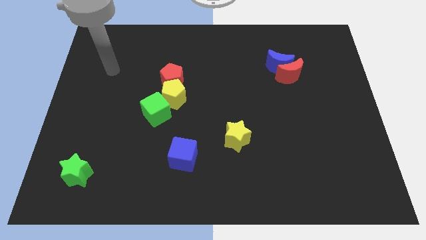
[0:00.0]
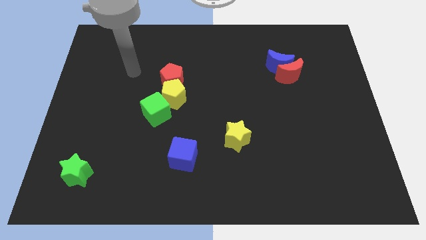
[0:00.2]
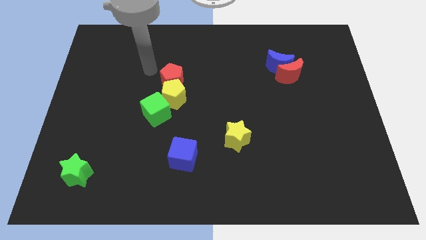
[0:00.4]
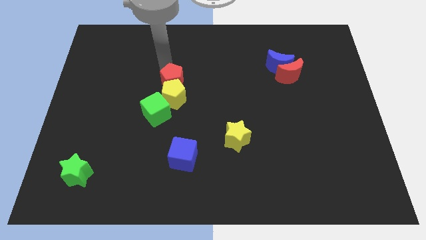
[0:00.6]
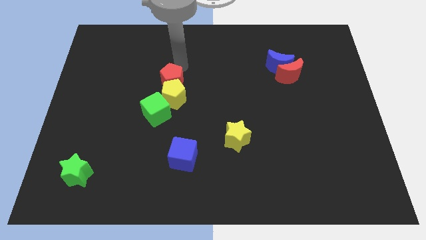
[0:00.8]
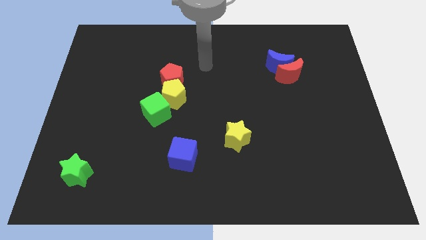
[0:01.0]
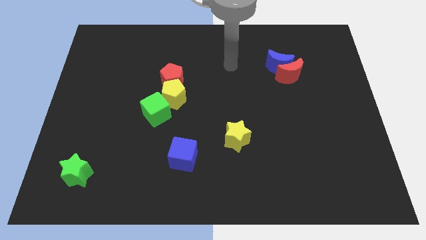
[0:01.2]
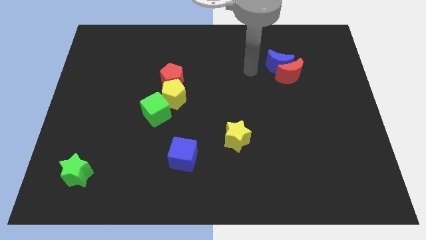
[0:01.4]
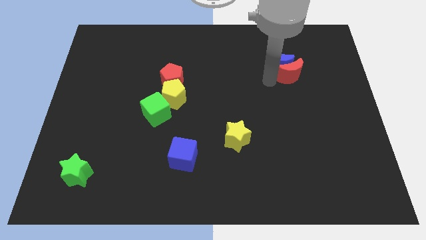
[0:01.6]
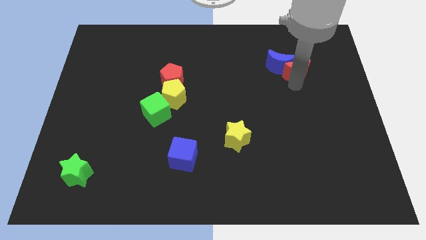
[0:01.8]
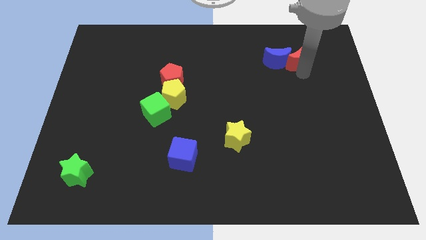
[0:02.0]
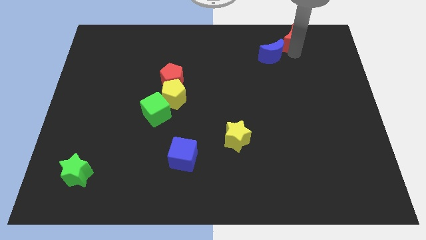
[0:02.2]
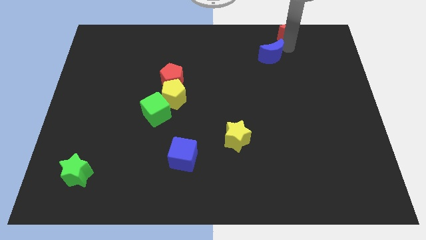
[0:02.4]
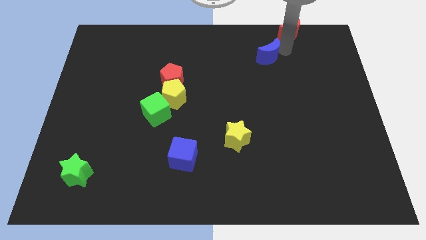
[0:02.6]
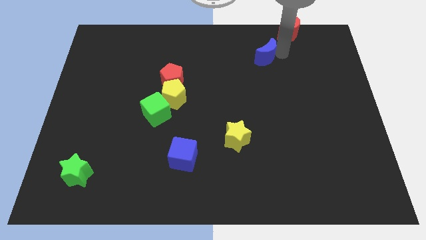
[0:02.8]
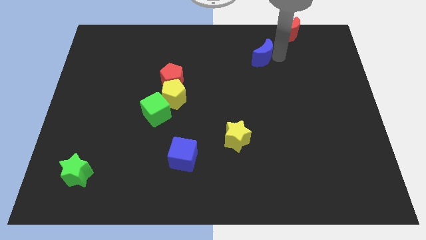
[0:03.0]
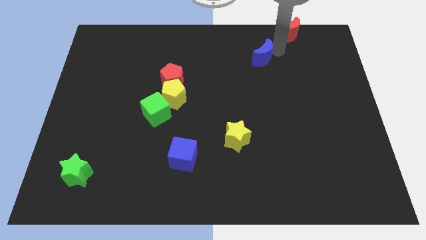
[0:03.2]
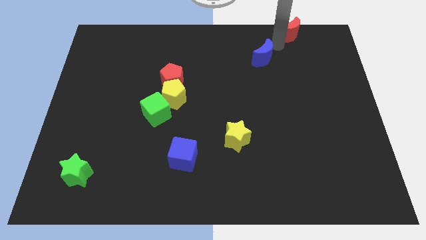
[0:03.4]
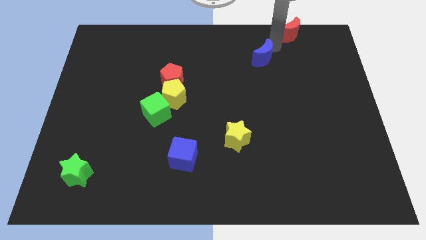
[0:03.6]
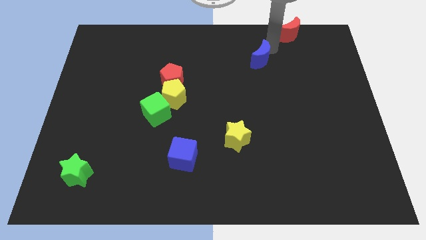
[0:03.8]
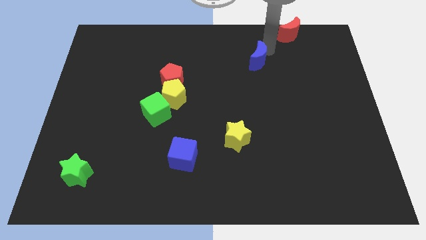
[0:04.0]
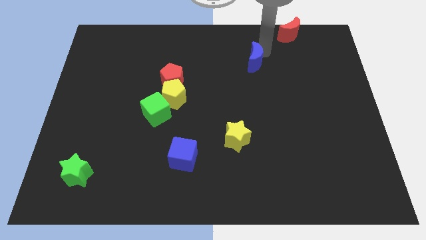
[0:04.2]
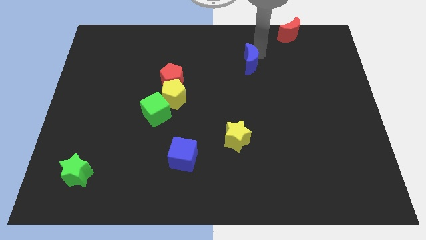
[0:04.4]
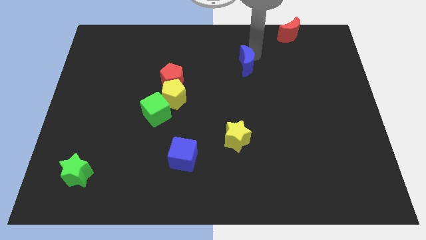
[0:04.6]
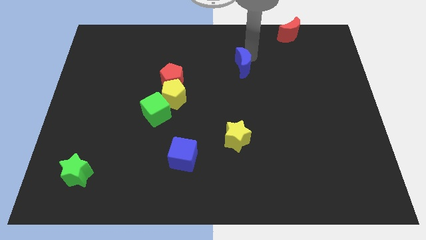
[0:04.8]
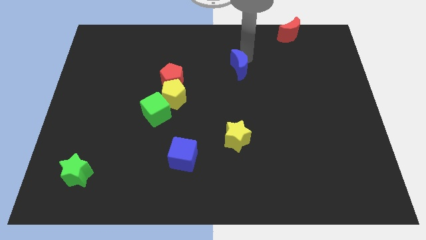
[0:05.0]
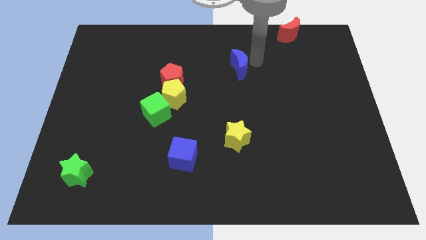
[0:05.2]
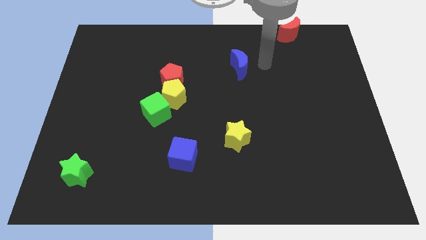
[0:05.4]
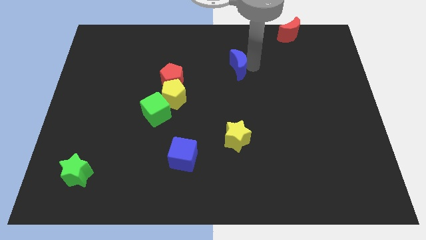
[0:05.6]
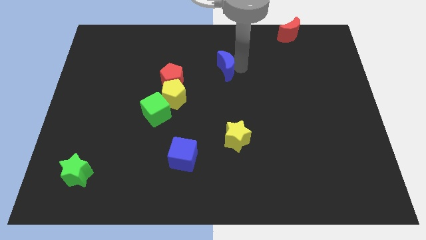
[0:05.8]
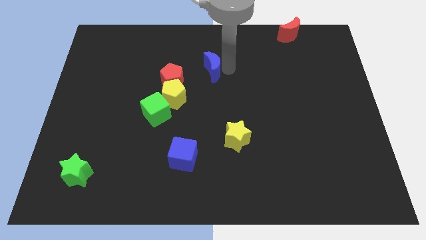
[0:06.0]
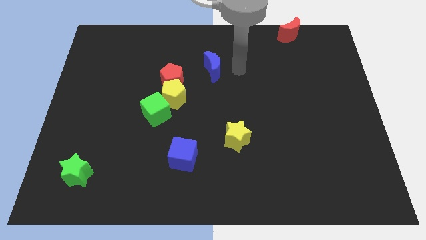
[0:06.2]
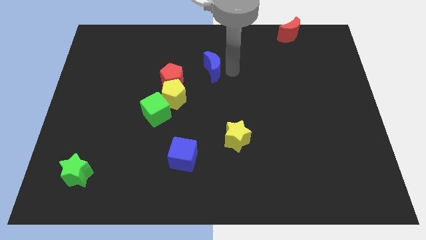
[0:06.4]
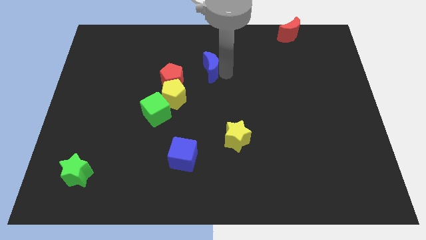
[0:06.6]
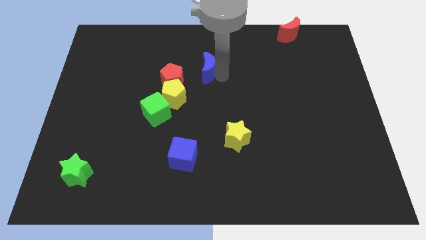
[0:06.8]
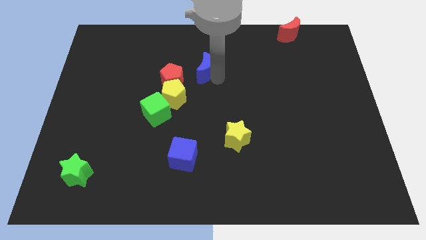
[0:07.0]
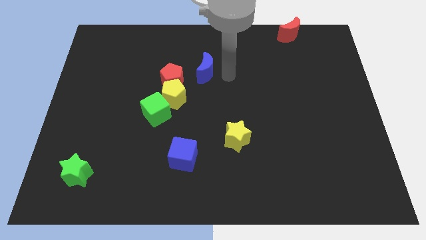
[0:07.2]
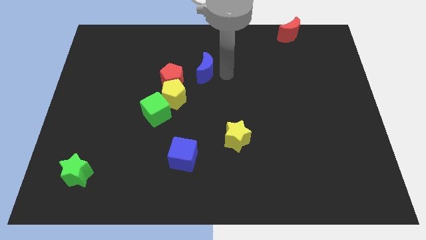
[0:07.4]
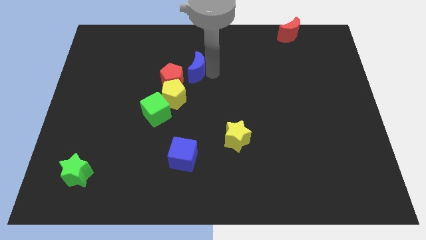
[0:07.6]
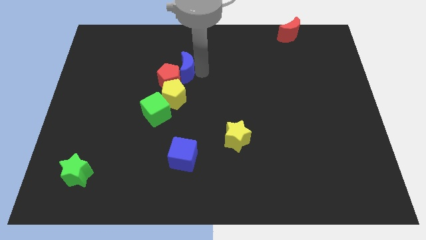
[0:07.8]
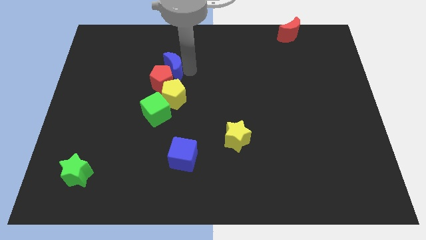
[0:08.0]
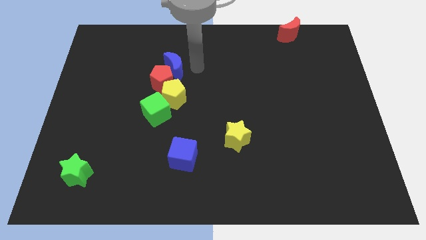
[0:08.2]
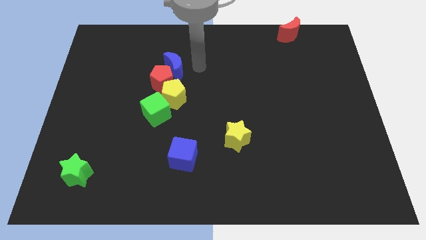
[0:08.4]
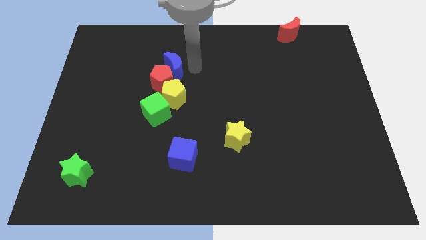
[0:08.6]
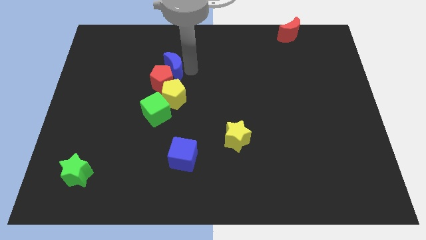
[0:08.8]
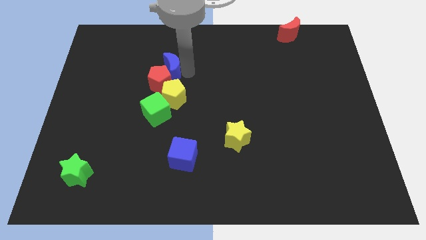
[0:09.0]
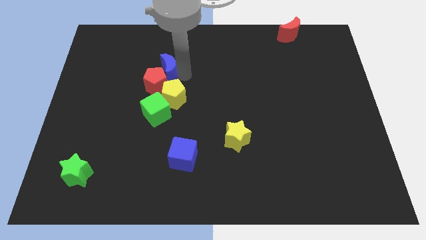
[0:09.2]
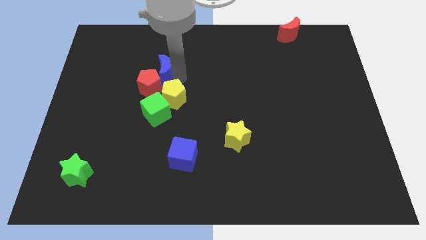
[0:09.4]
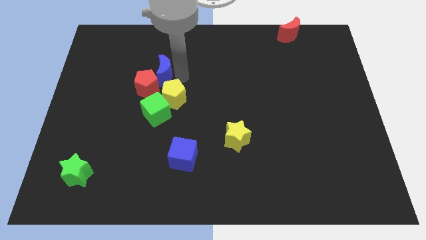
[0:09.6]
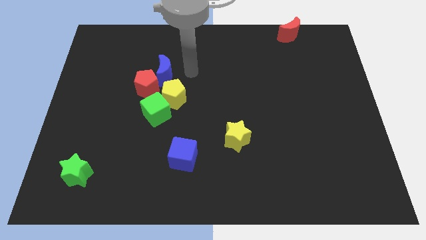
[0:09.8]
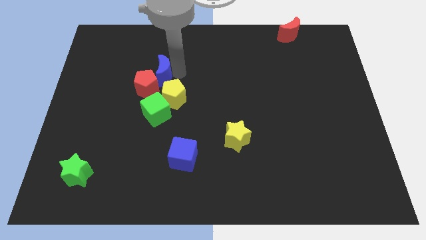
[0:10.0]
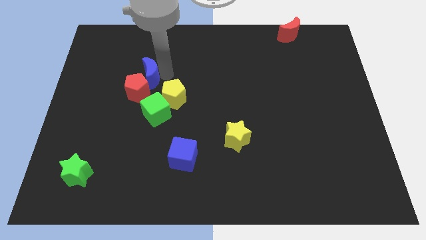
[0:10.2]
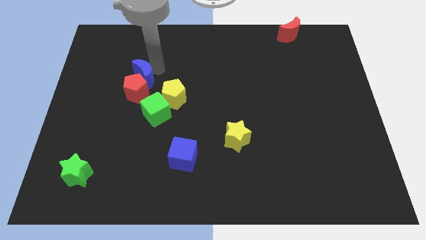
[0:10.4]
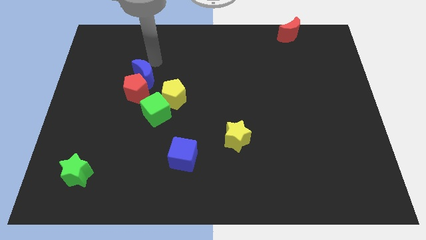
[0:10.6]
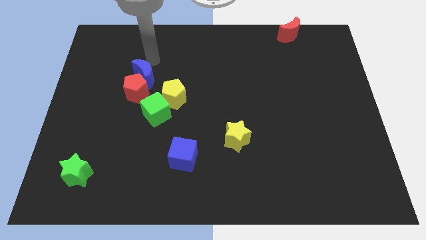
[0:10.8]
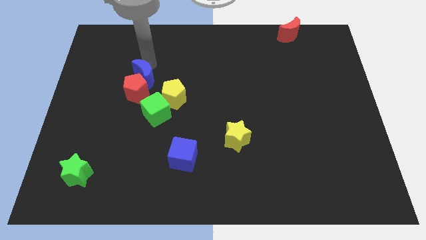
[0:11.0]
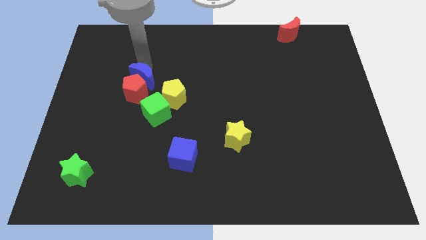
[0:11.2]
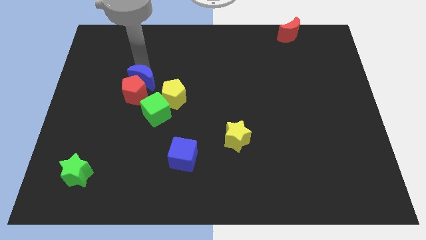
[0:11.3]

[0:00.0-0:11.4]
put the blue moon to the top left side of the green cube

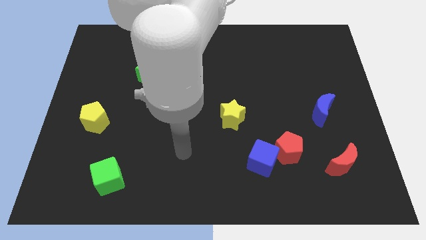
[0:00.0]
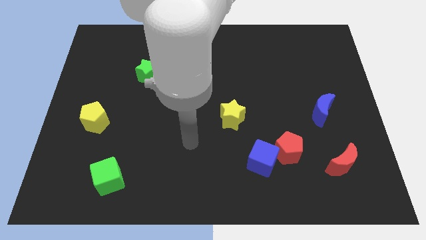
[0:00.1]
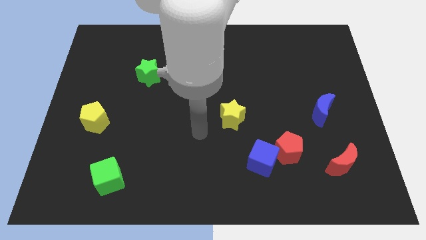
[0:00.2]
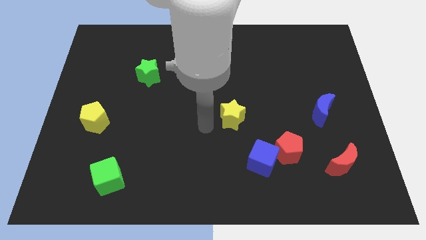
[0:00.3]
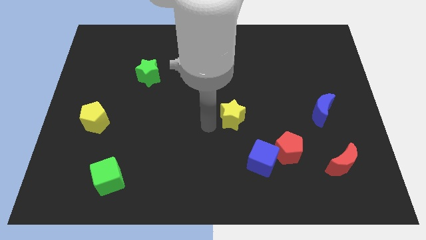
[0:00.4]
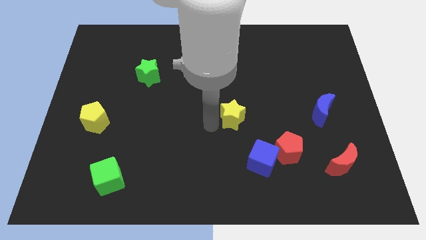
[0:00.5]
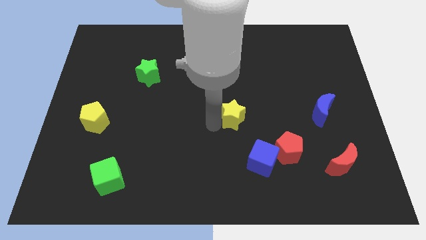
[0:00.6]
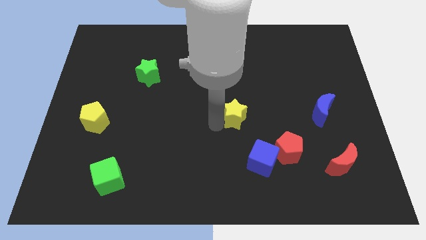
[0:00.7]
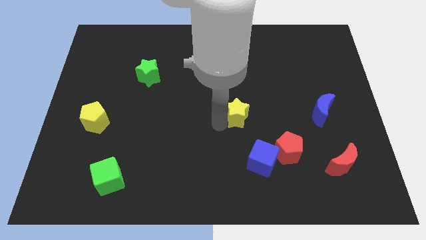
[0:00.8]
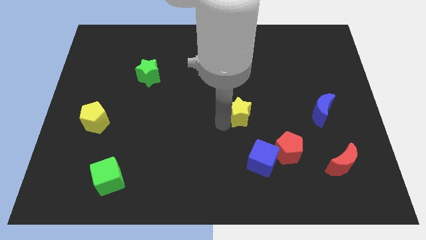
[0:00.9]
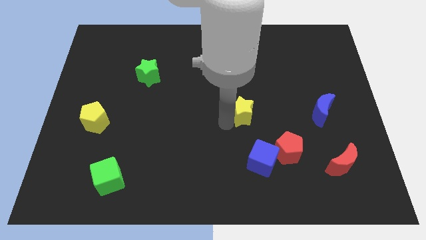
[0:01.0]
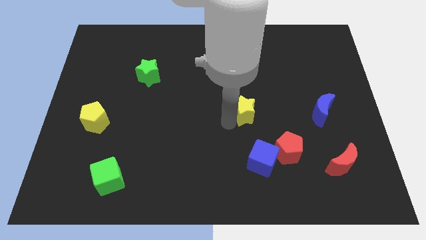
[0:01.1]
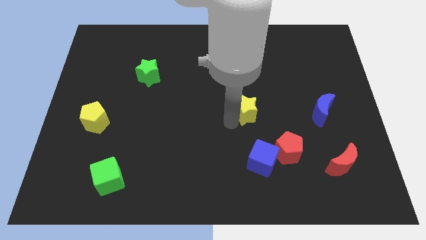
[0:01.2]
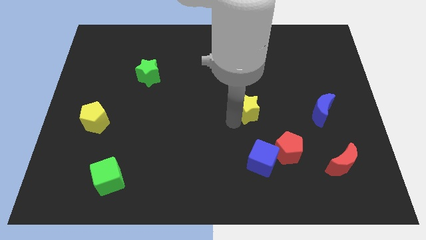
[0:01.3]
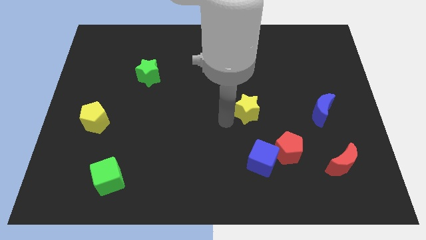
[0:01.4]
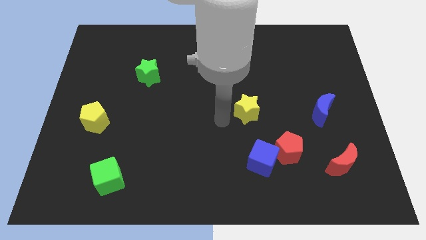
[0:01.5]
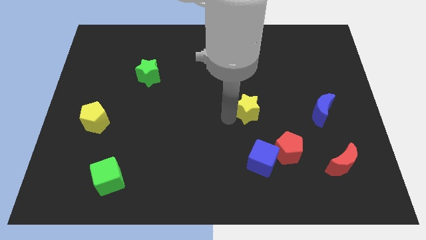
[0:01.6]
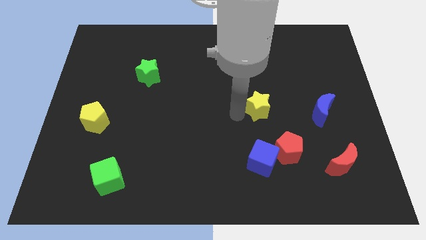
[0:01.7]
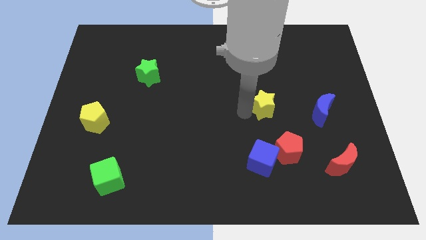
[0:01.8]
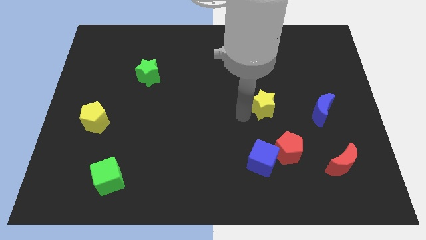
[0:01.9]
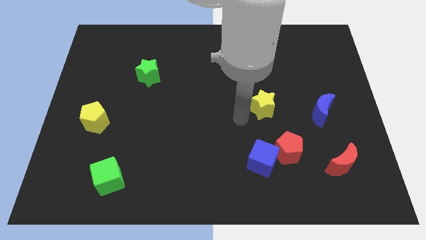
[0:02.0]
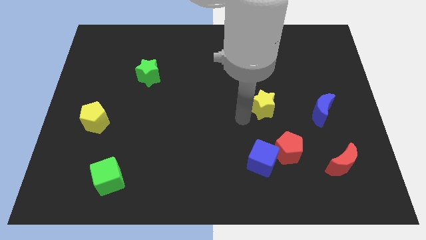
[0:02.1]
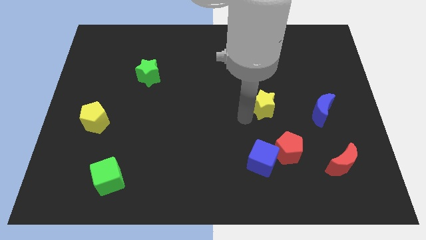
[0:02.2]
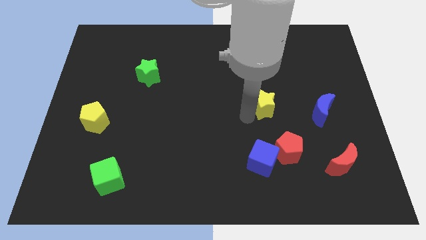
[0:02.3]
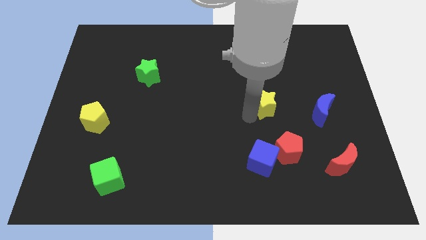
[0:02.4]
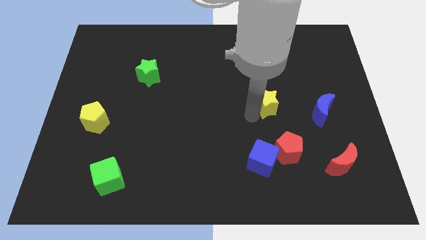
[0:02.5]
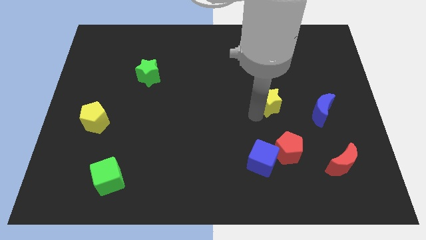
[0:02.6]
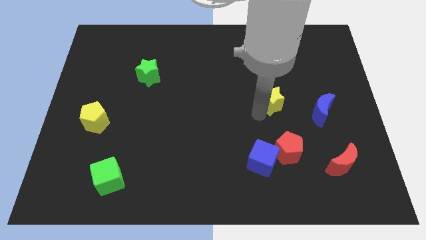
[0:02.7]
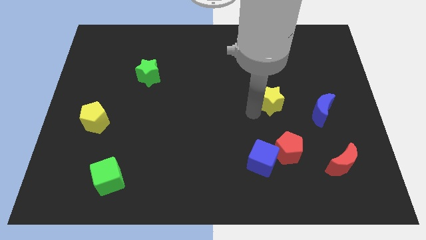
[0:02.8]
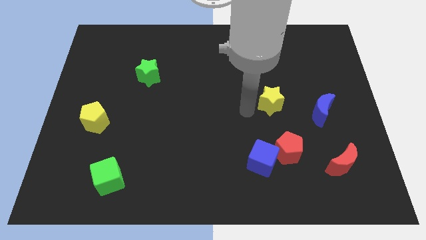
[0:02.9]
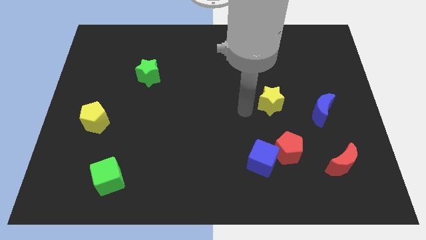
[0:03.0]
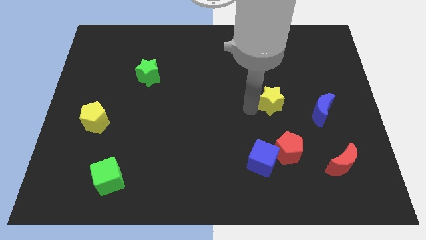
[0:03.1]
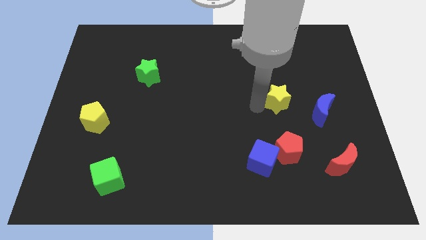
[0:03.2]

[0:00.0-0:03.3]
move the yellow star to the top left of the blue moon
